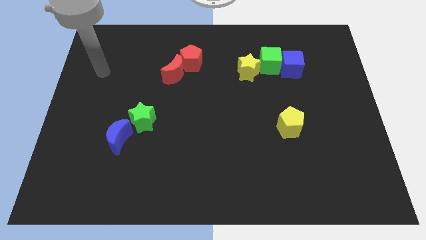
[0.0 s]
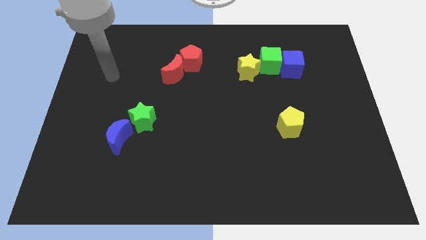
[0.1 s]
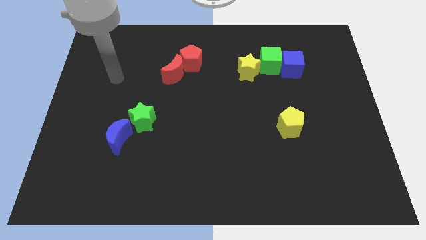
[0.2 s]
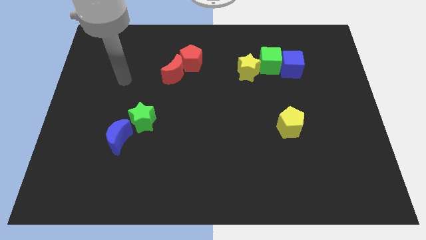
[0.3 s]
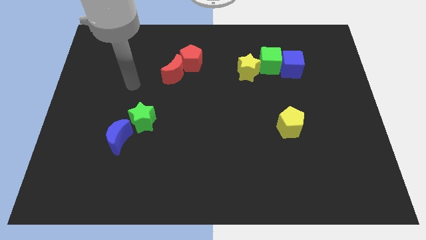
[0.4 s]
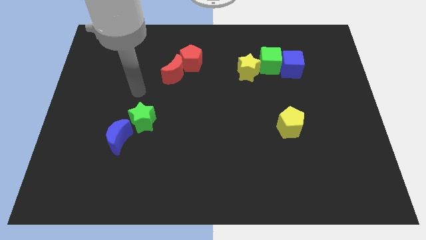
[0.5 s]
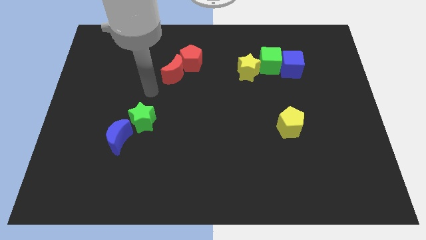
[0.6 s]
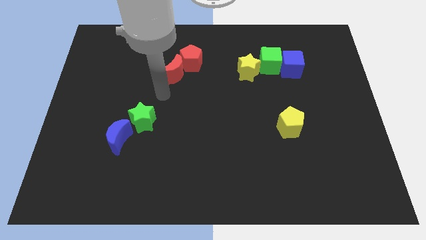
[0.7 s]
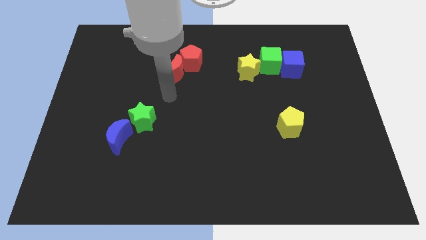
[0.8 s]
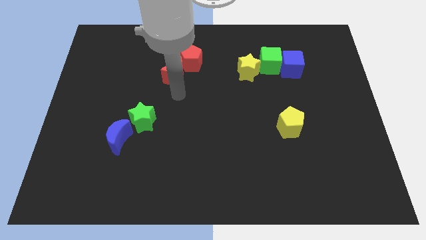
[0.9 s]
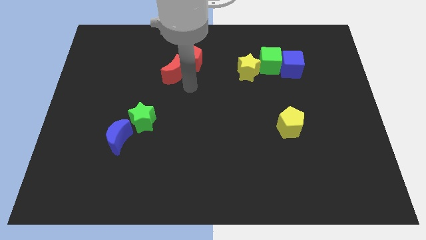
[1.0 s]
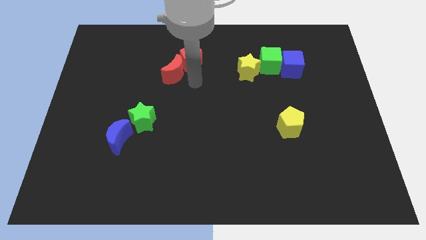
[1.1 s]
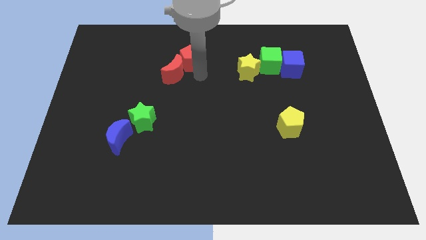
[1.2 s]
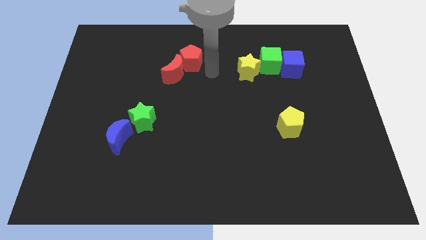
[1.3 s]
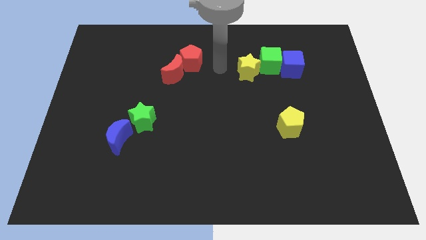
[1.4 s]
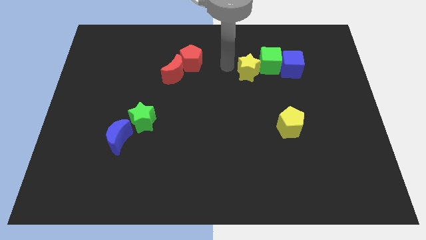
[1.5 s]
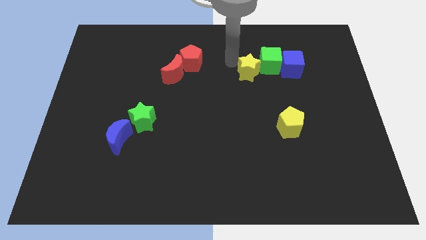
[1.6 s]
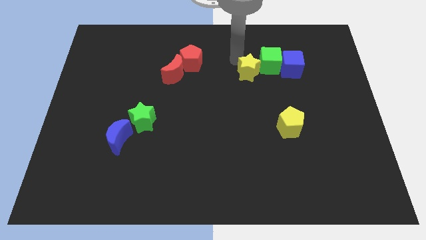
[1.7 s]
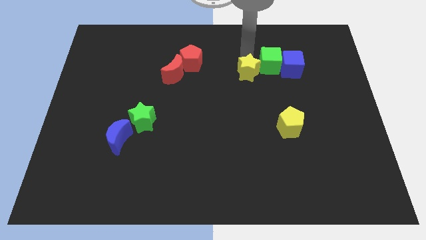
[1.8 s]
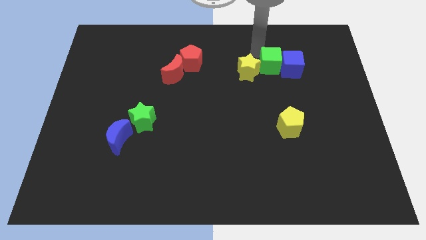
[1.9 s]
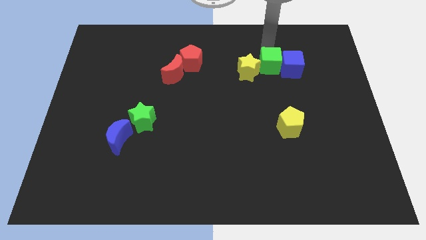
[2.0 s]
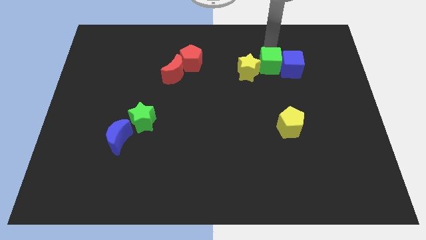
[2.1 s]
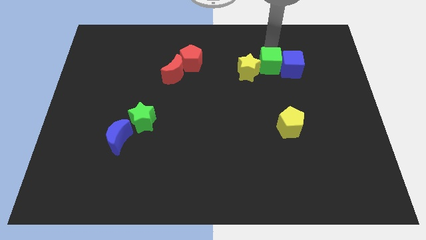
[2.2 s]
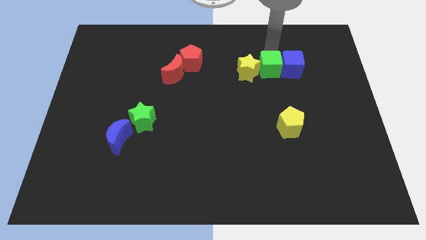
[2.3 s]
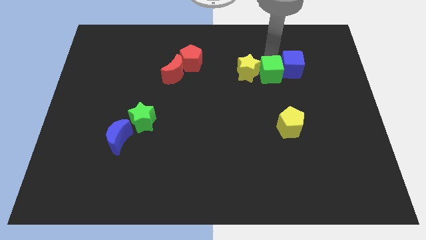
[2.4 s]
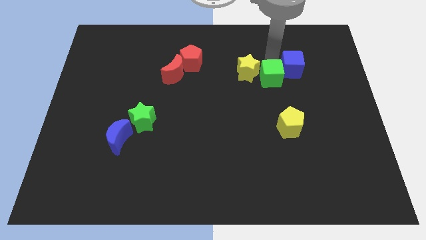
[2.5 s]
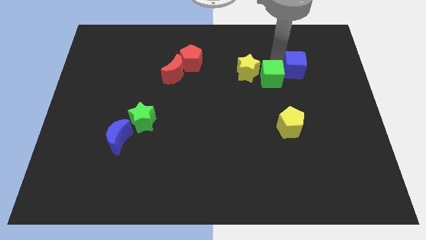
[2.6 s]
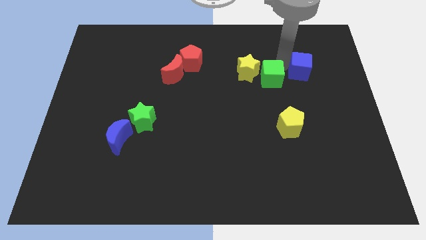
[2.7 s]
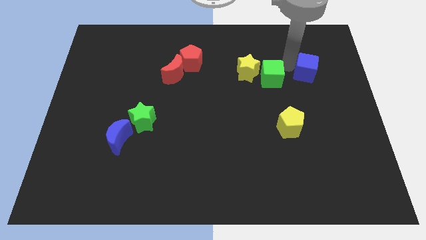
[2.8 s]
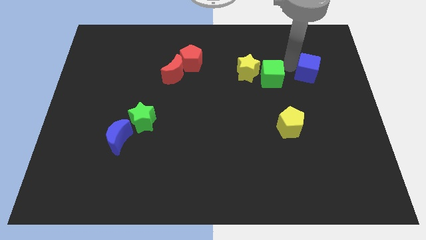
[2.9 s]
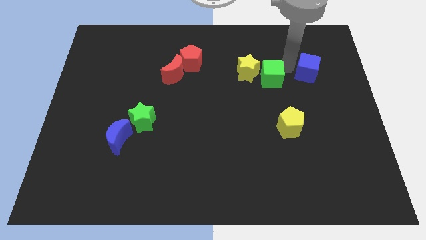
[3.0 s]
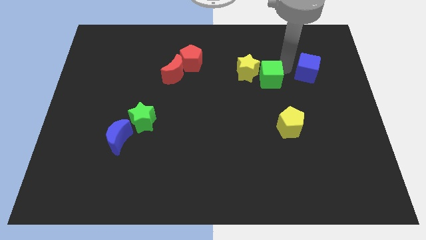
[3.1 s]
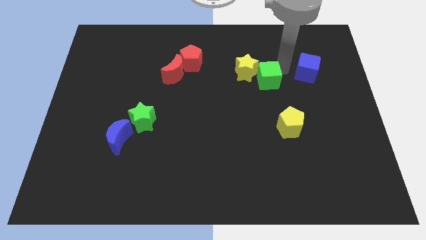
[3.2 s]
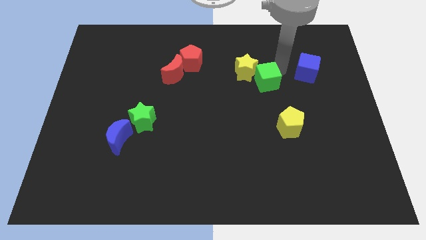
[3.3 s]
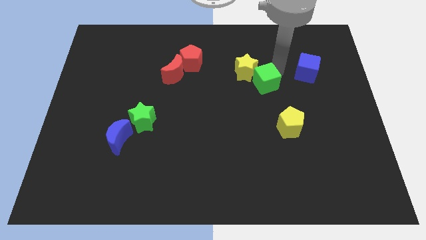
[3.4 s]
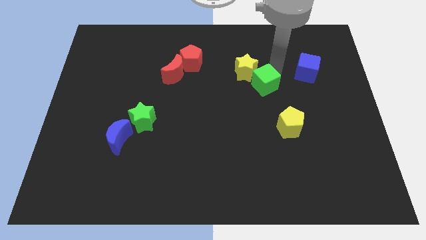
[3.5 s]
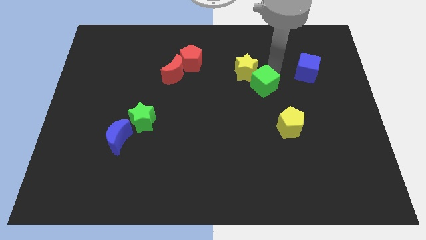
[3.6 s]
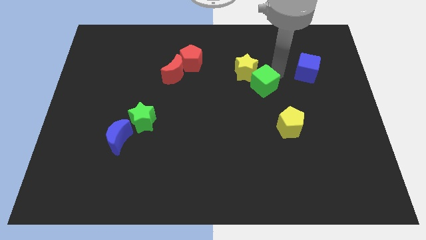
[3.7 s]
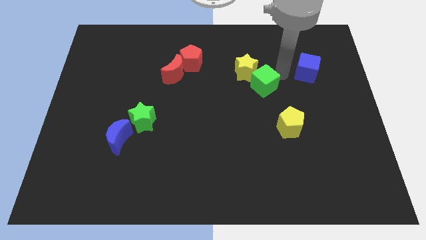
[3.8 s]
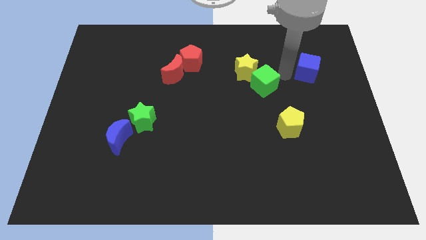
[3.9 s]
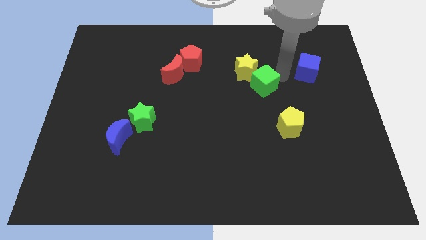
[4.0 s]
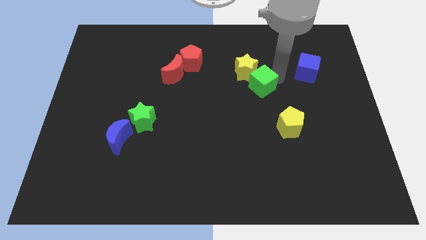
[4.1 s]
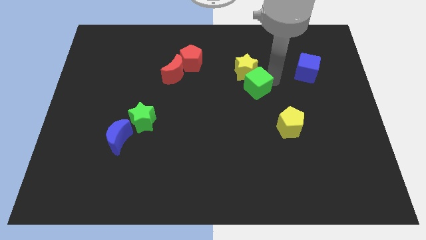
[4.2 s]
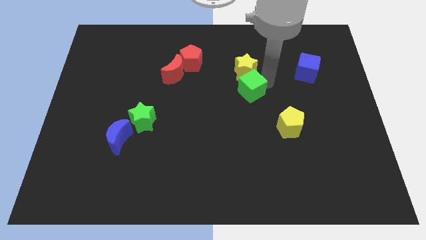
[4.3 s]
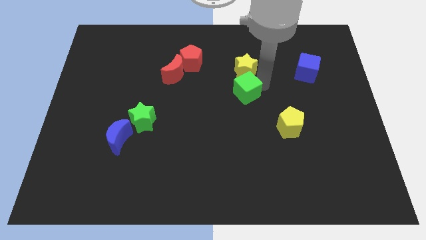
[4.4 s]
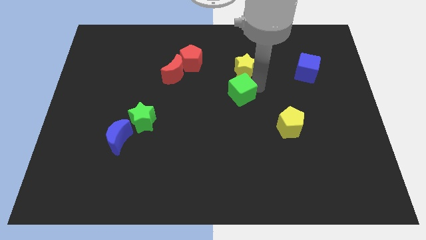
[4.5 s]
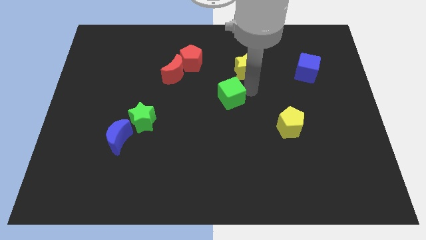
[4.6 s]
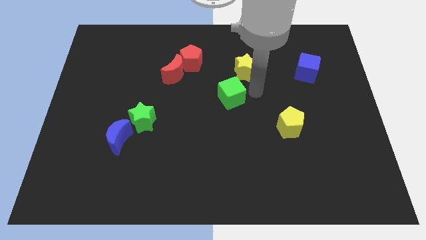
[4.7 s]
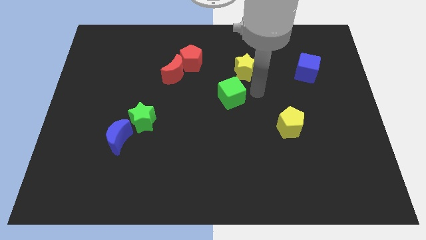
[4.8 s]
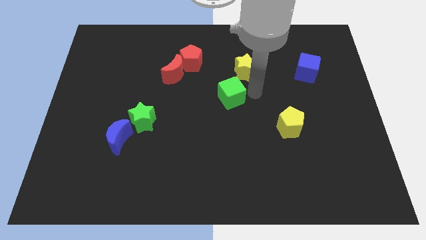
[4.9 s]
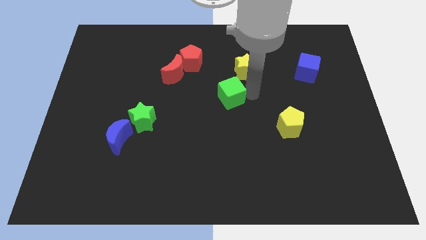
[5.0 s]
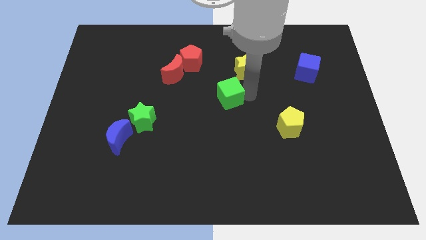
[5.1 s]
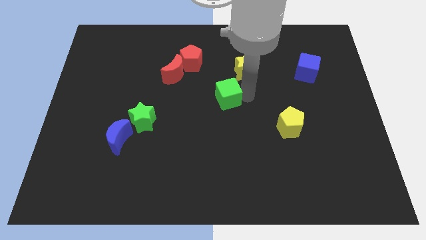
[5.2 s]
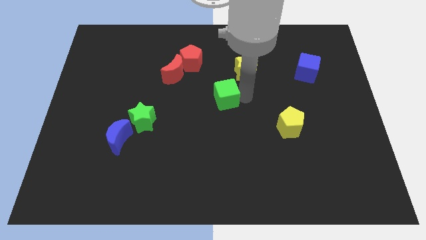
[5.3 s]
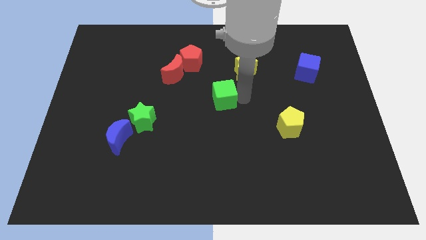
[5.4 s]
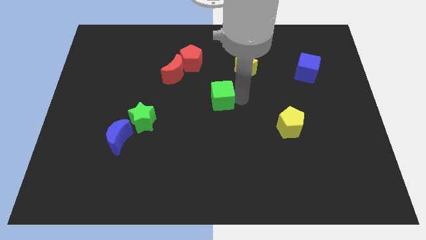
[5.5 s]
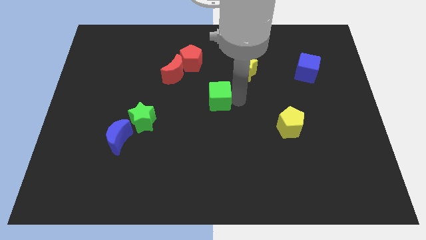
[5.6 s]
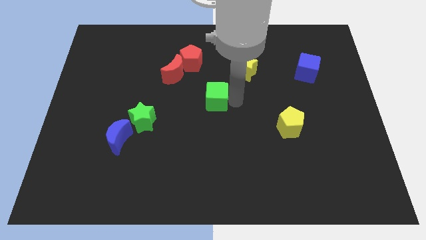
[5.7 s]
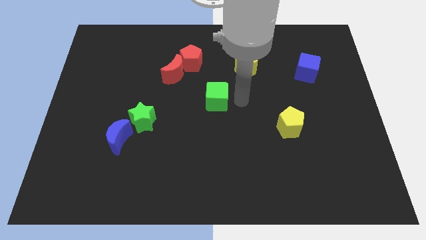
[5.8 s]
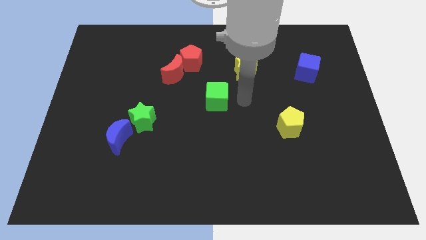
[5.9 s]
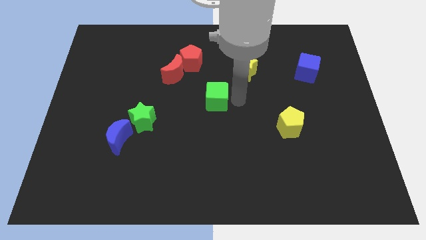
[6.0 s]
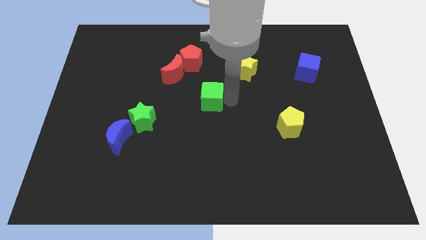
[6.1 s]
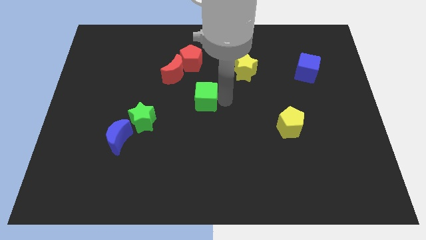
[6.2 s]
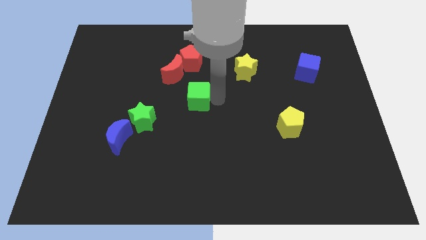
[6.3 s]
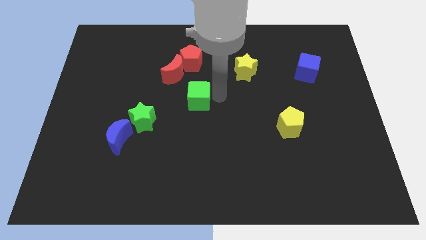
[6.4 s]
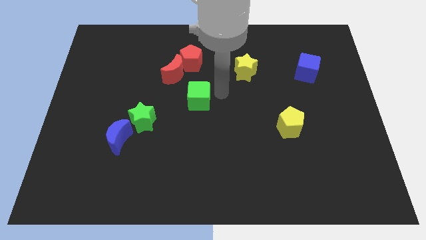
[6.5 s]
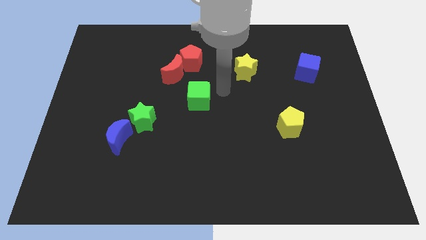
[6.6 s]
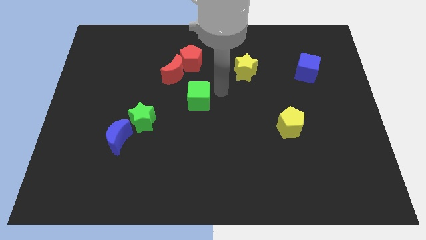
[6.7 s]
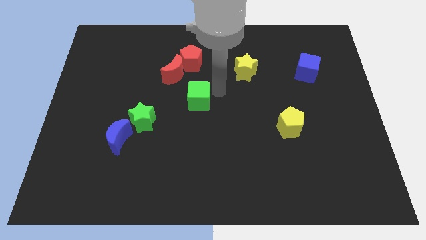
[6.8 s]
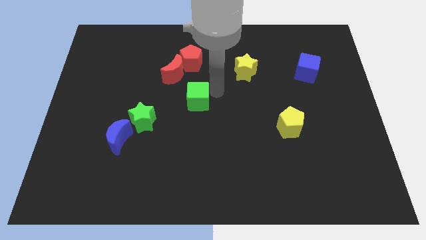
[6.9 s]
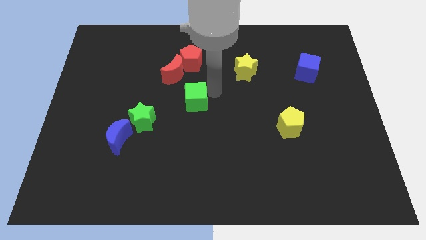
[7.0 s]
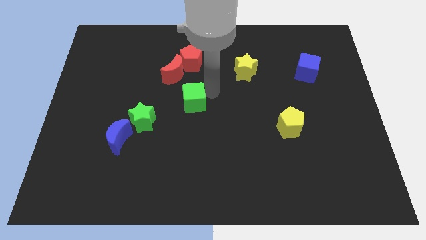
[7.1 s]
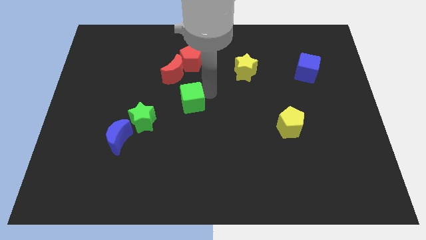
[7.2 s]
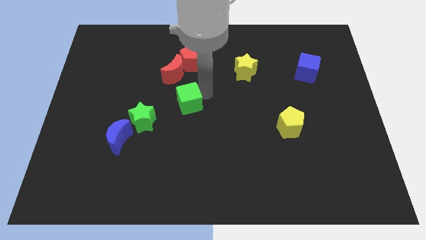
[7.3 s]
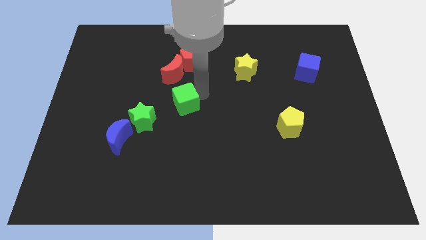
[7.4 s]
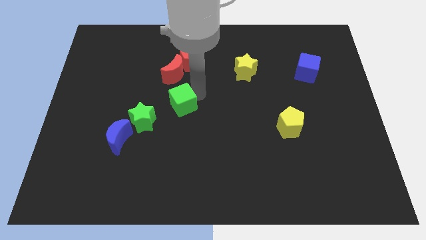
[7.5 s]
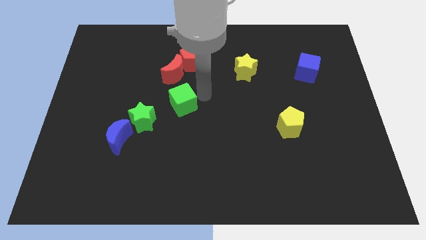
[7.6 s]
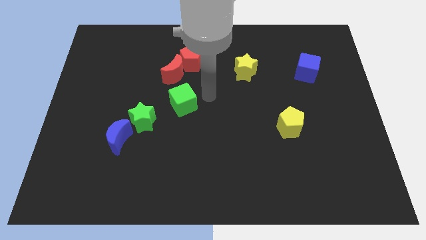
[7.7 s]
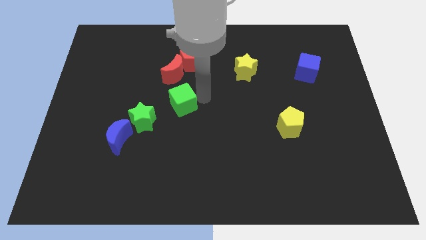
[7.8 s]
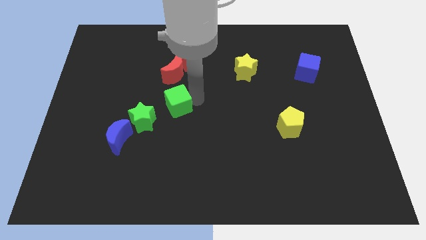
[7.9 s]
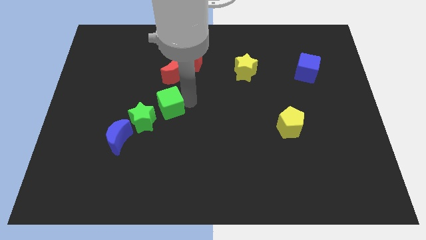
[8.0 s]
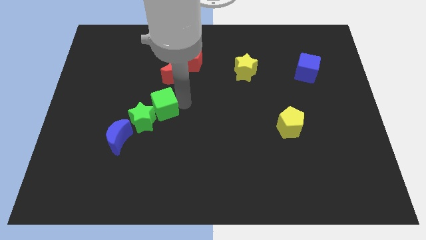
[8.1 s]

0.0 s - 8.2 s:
move the green cube diagonally up and to the right of the blue moon
